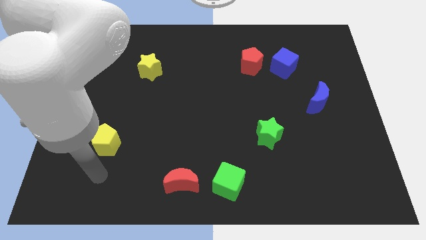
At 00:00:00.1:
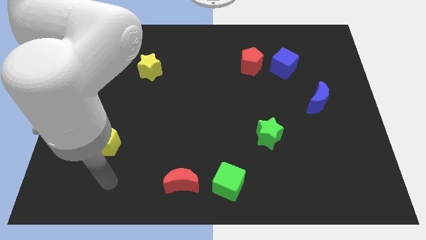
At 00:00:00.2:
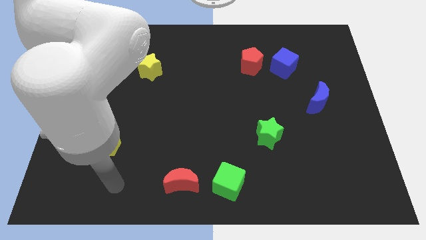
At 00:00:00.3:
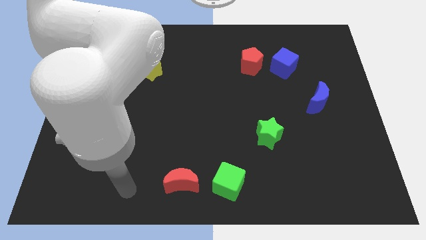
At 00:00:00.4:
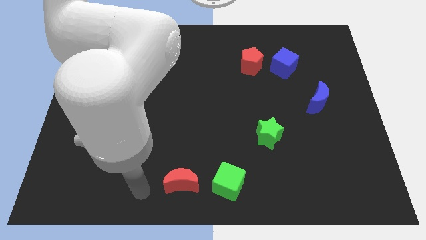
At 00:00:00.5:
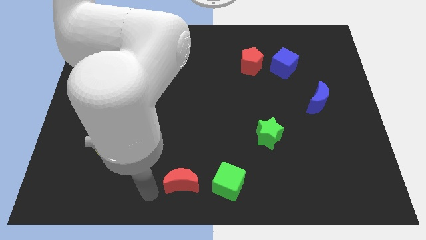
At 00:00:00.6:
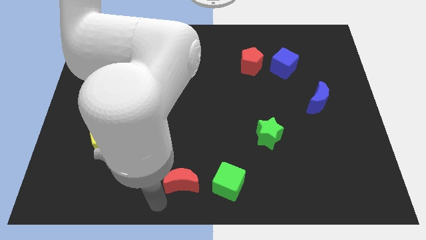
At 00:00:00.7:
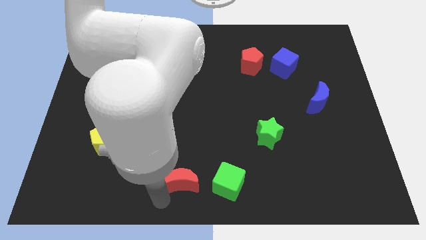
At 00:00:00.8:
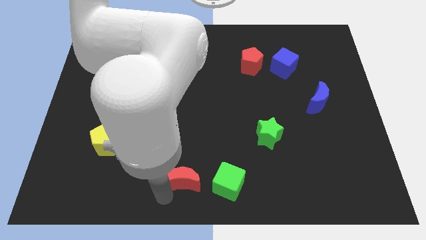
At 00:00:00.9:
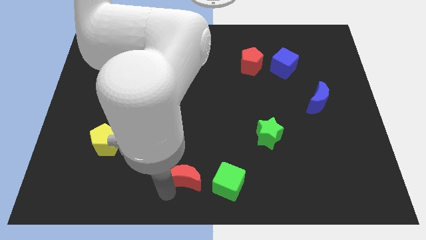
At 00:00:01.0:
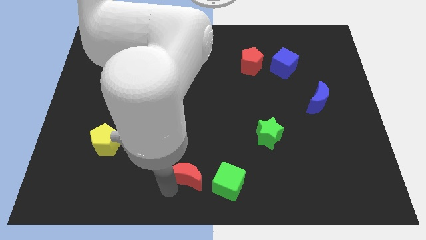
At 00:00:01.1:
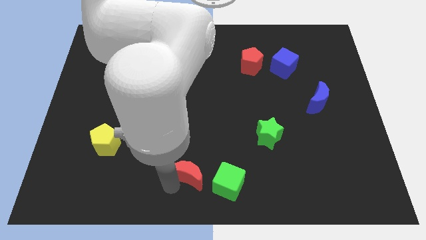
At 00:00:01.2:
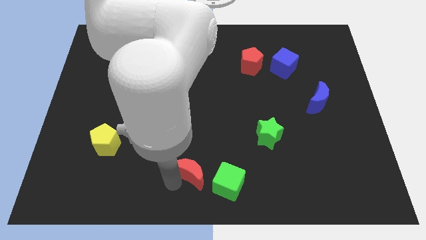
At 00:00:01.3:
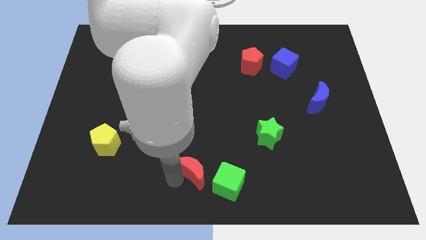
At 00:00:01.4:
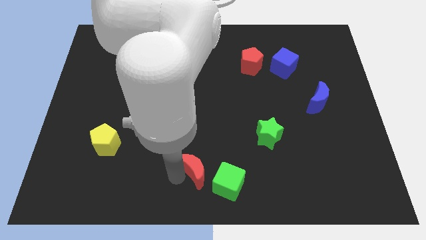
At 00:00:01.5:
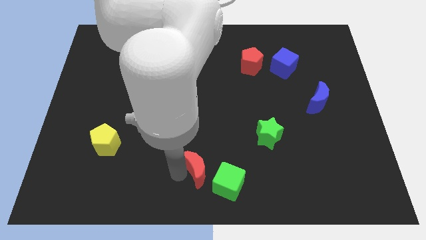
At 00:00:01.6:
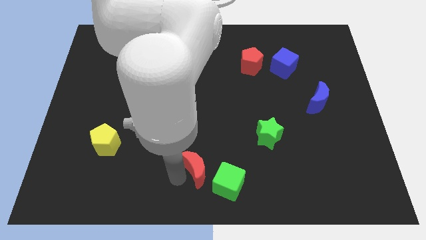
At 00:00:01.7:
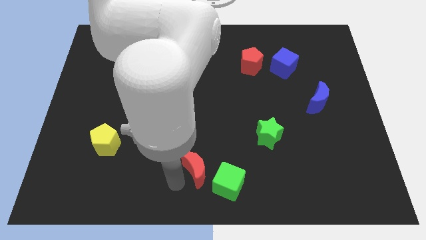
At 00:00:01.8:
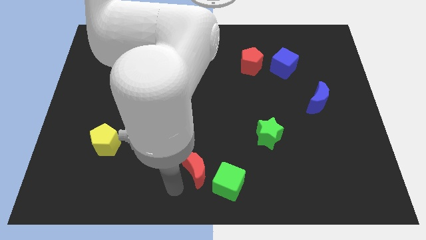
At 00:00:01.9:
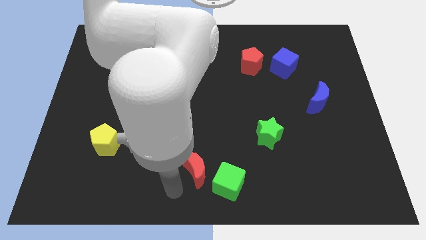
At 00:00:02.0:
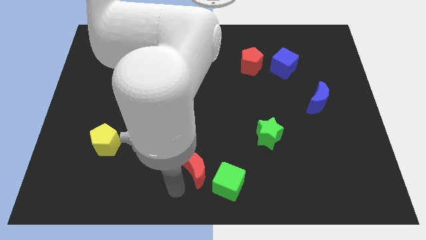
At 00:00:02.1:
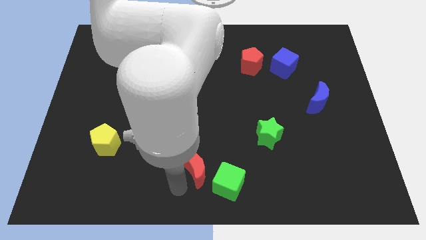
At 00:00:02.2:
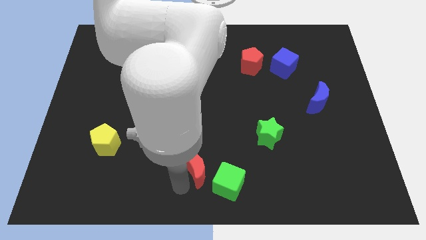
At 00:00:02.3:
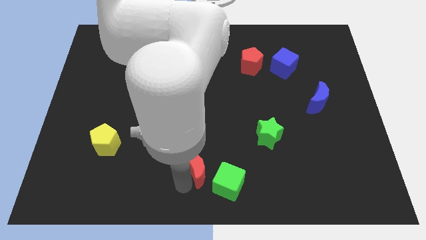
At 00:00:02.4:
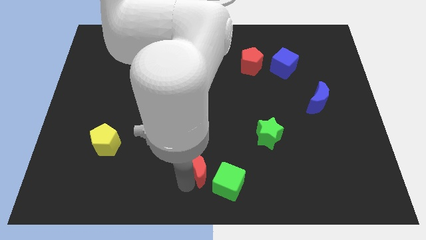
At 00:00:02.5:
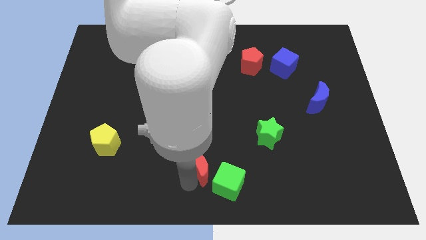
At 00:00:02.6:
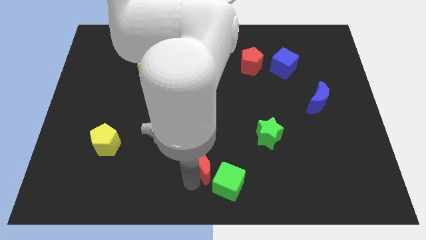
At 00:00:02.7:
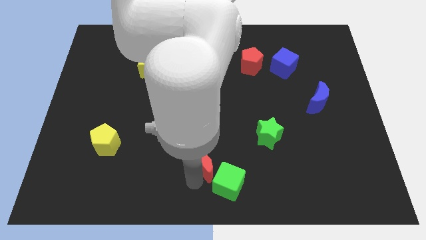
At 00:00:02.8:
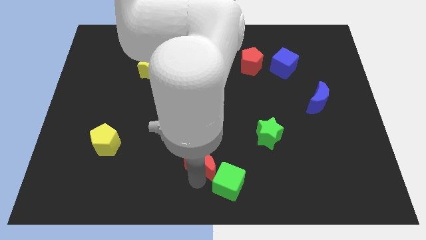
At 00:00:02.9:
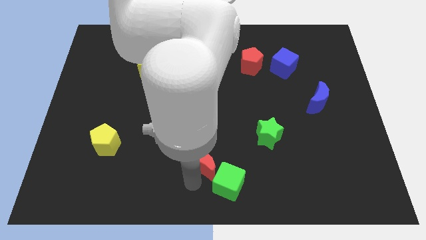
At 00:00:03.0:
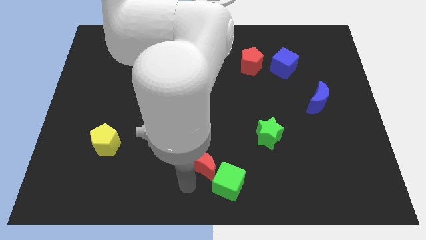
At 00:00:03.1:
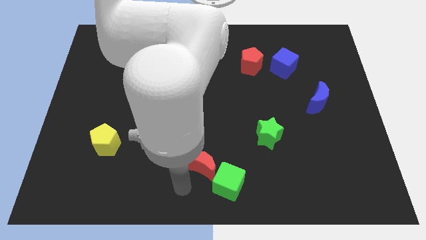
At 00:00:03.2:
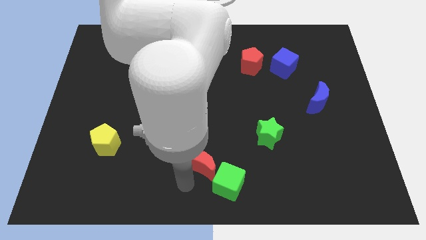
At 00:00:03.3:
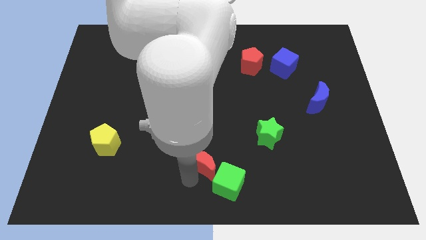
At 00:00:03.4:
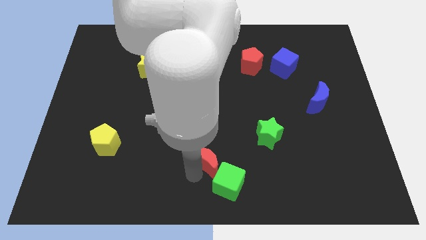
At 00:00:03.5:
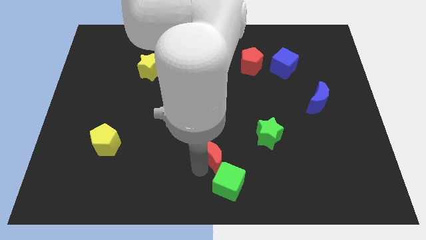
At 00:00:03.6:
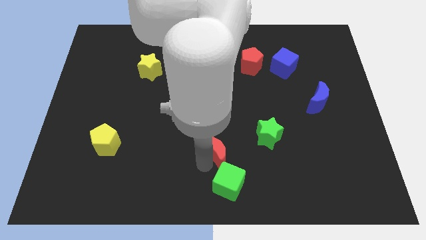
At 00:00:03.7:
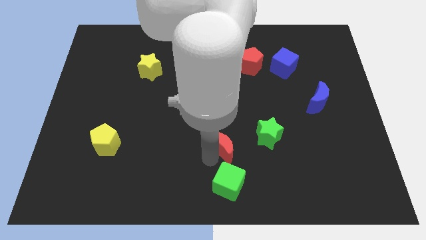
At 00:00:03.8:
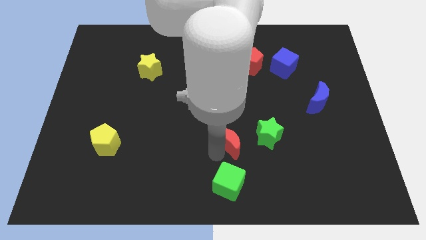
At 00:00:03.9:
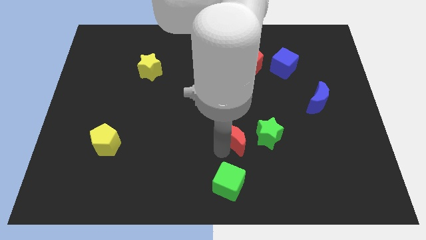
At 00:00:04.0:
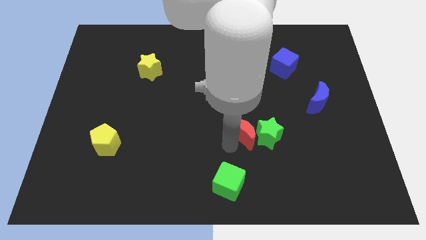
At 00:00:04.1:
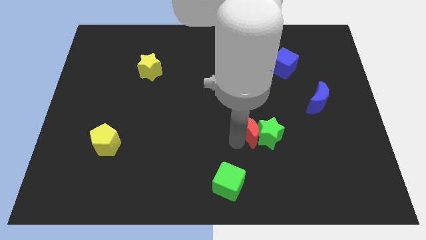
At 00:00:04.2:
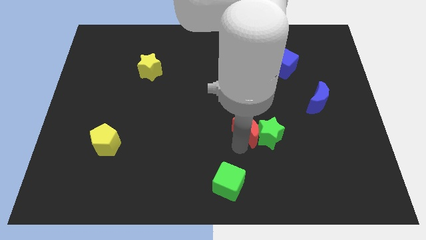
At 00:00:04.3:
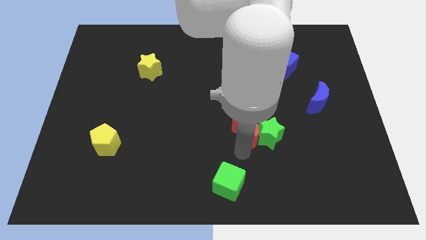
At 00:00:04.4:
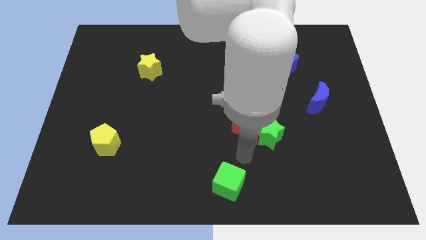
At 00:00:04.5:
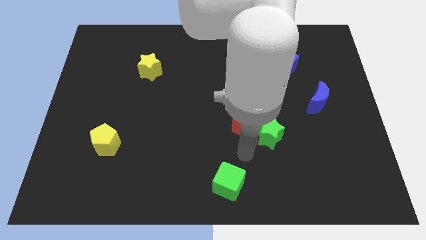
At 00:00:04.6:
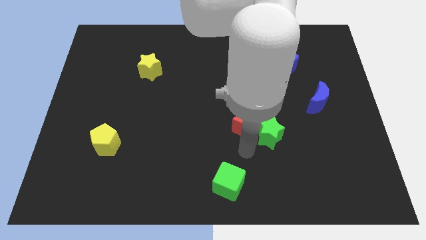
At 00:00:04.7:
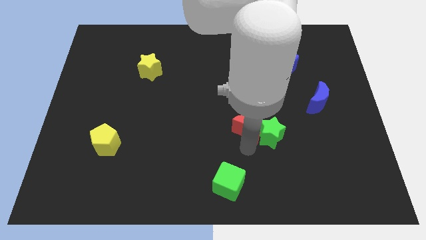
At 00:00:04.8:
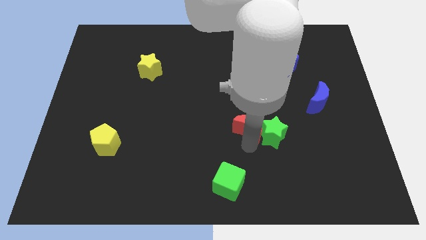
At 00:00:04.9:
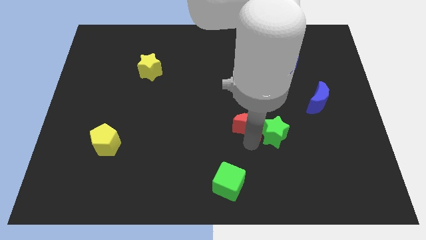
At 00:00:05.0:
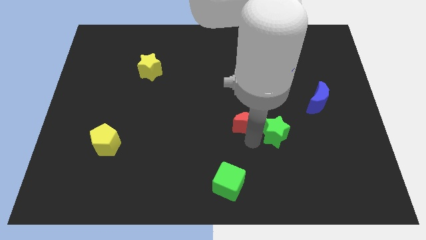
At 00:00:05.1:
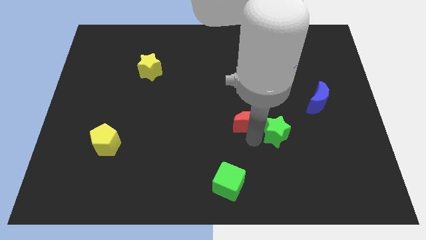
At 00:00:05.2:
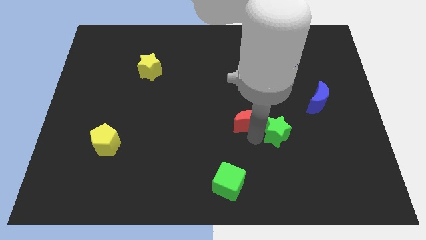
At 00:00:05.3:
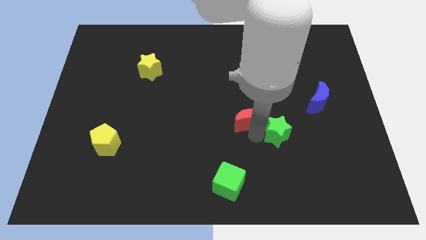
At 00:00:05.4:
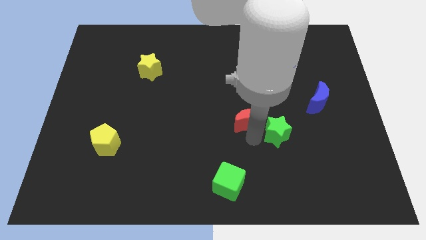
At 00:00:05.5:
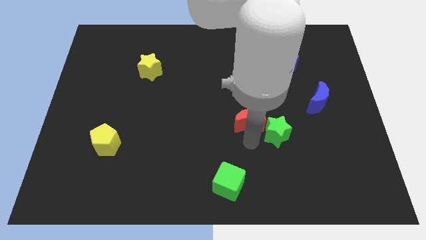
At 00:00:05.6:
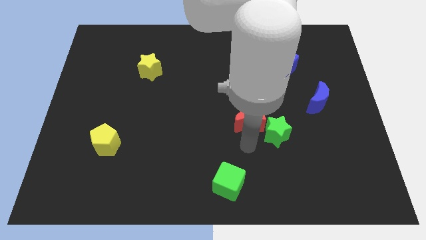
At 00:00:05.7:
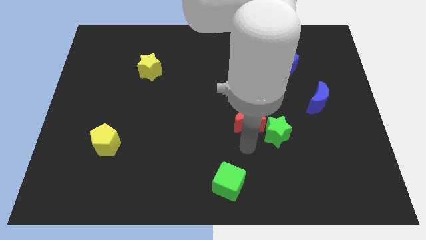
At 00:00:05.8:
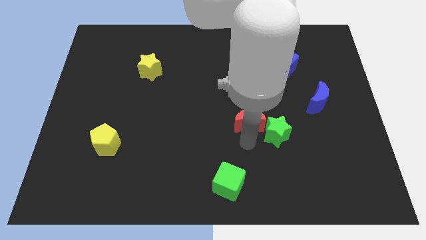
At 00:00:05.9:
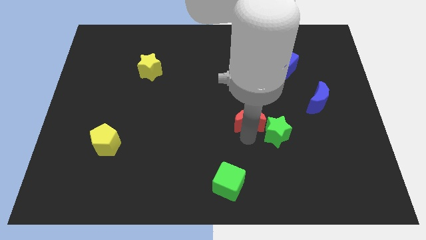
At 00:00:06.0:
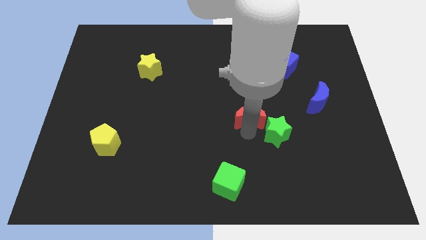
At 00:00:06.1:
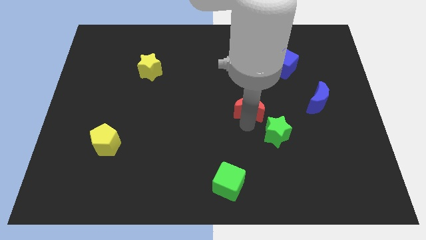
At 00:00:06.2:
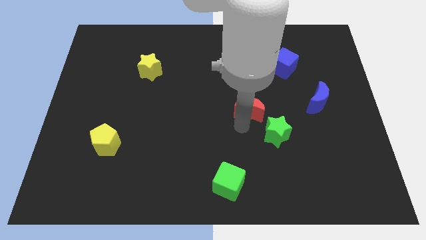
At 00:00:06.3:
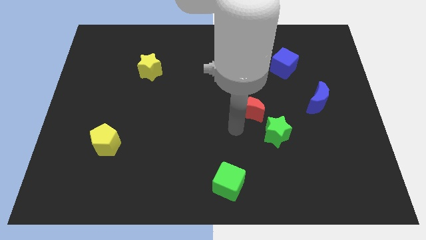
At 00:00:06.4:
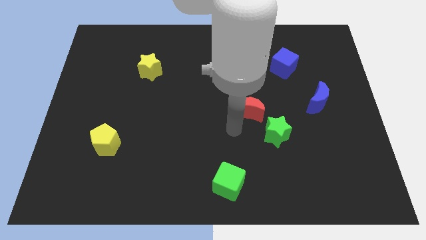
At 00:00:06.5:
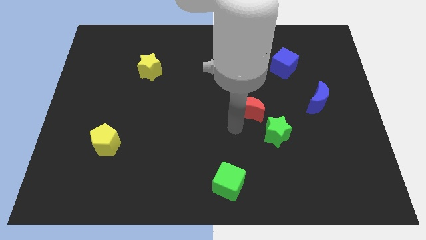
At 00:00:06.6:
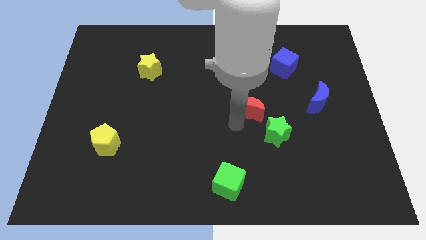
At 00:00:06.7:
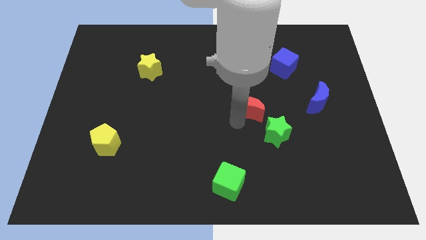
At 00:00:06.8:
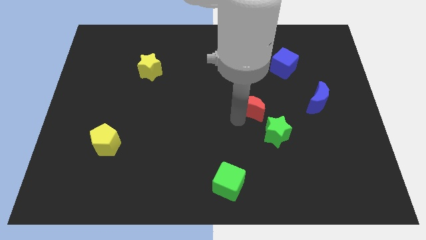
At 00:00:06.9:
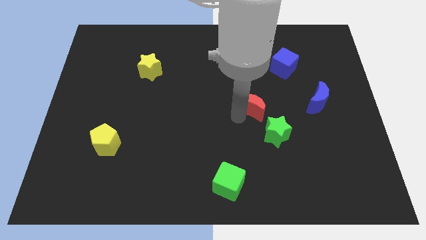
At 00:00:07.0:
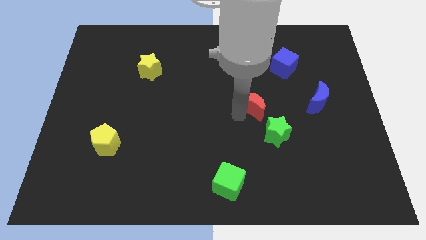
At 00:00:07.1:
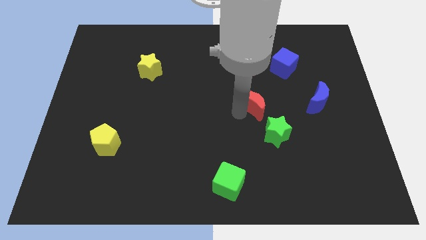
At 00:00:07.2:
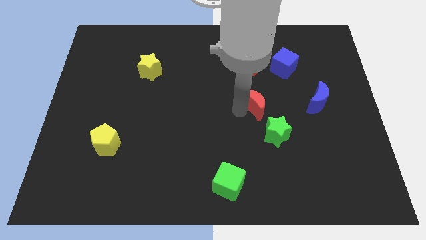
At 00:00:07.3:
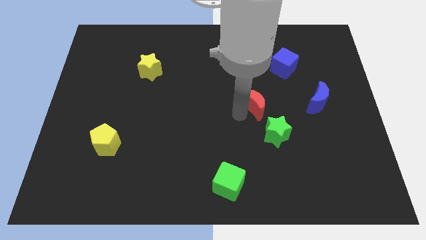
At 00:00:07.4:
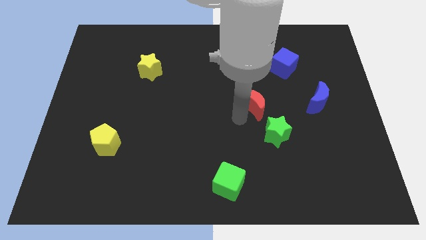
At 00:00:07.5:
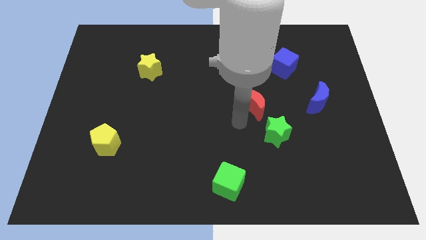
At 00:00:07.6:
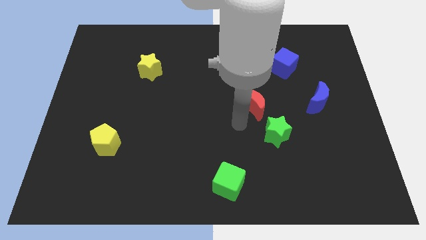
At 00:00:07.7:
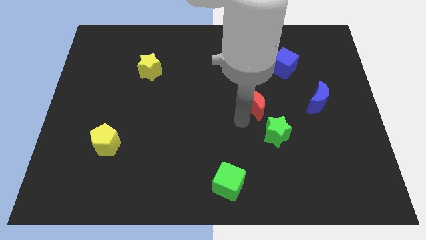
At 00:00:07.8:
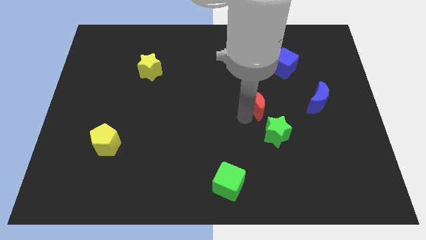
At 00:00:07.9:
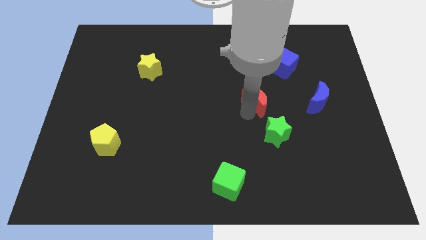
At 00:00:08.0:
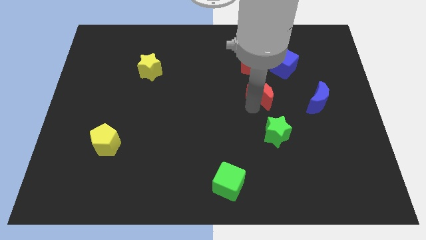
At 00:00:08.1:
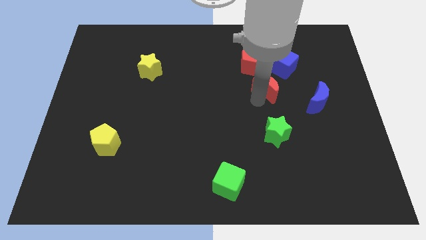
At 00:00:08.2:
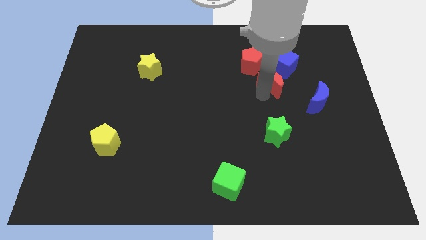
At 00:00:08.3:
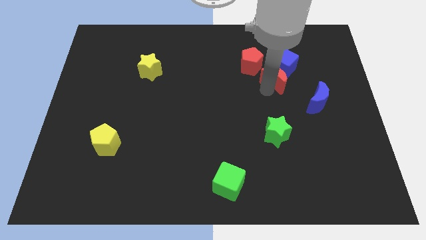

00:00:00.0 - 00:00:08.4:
put the red moon to the blue cube
